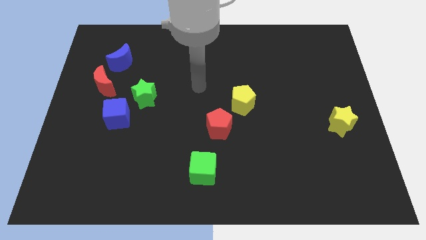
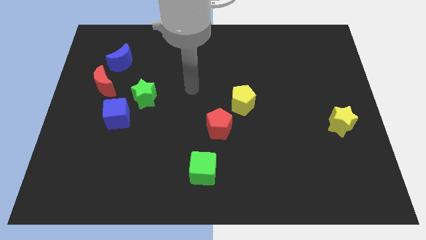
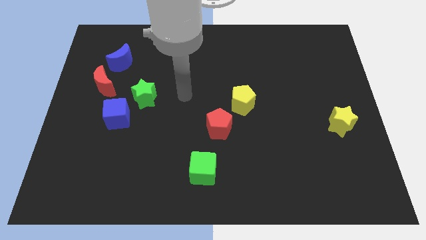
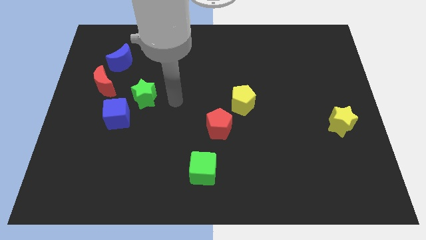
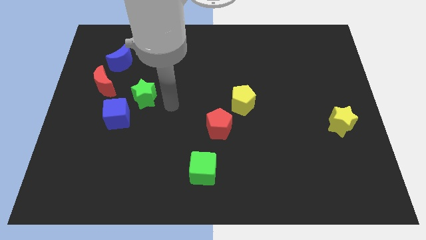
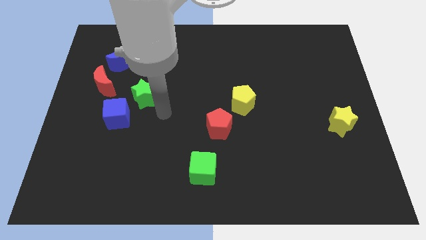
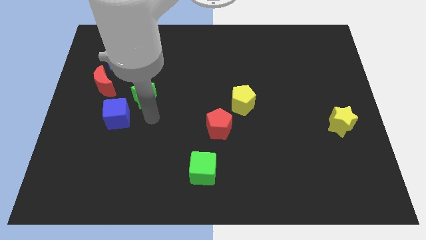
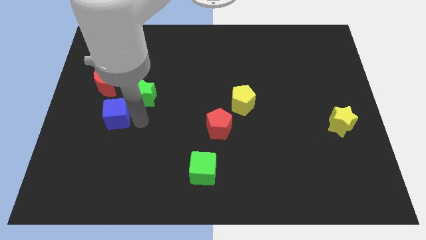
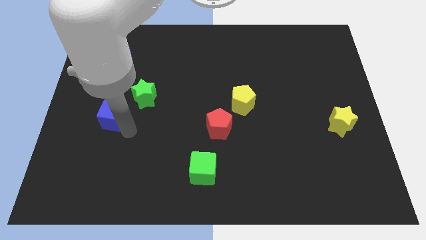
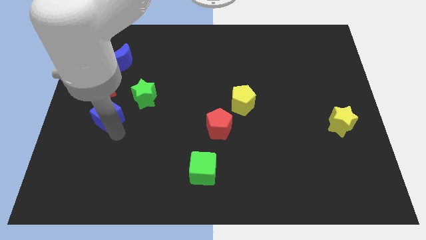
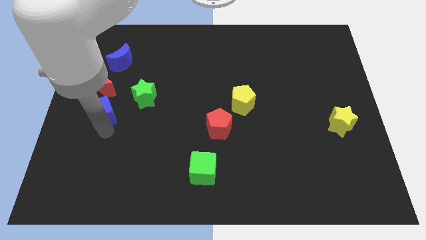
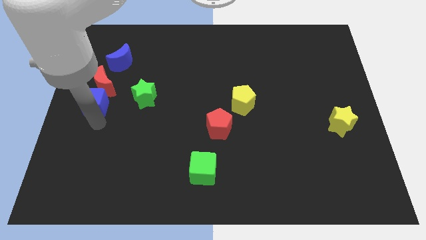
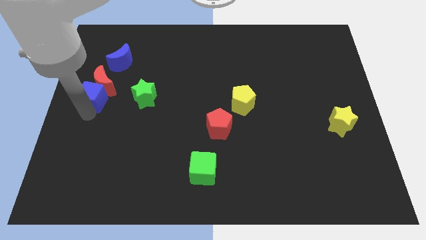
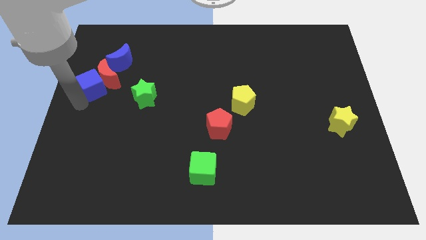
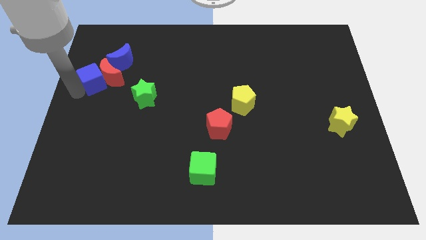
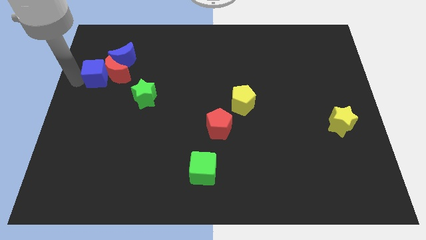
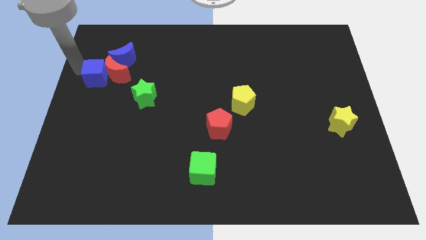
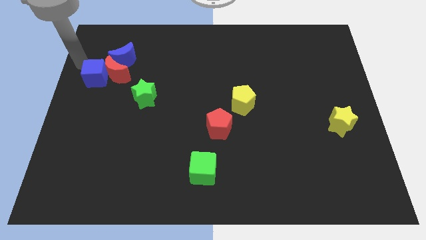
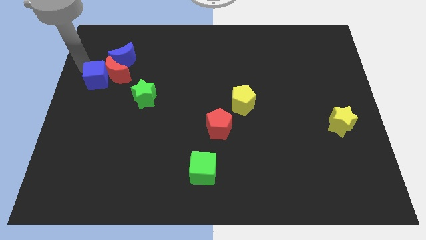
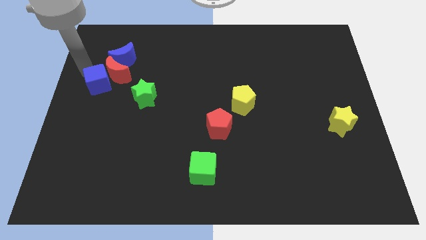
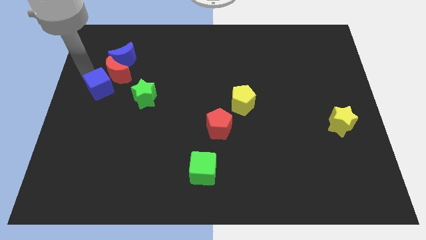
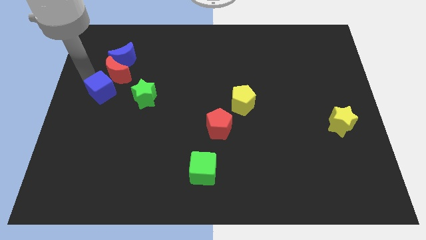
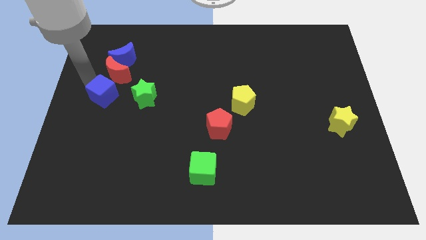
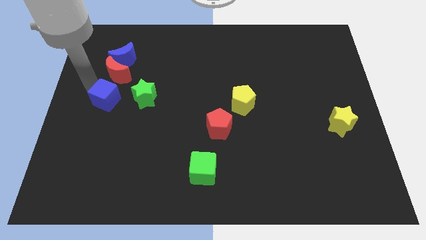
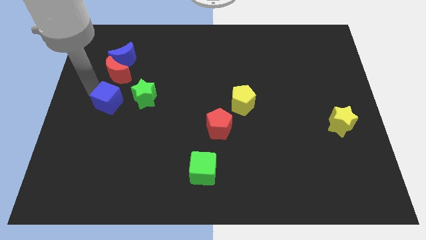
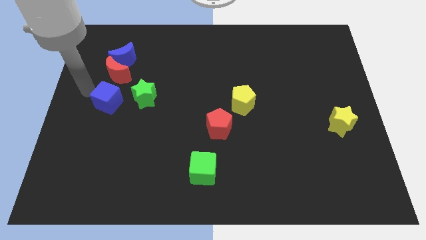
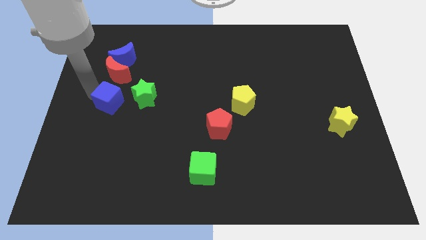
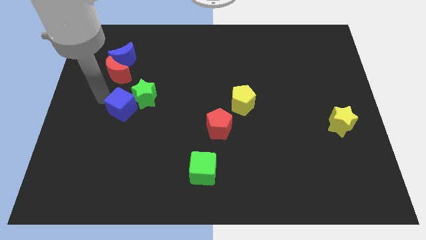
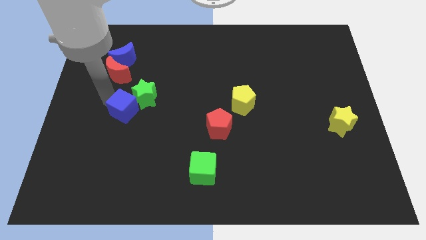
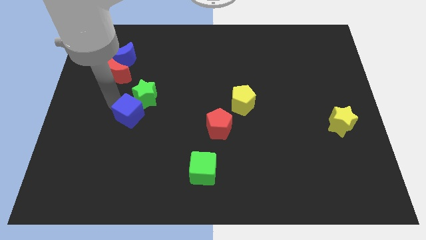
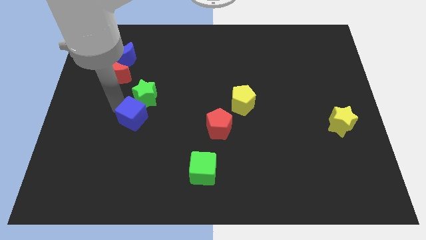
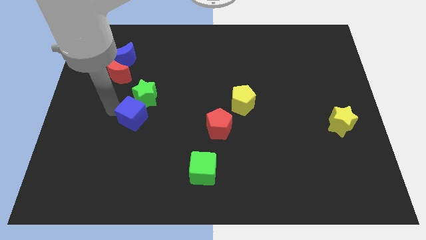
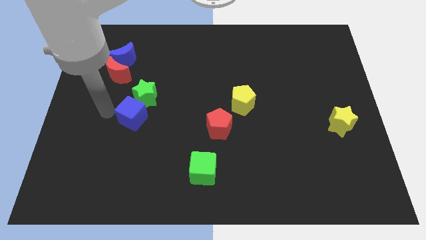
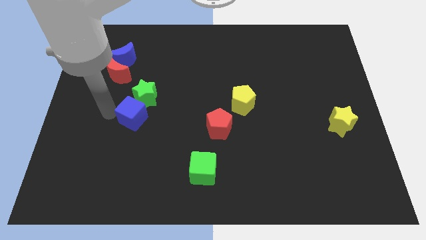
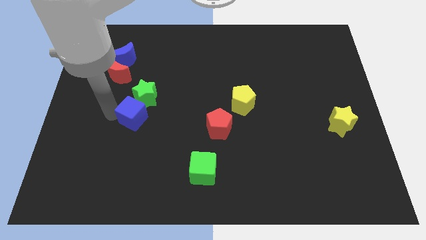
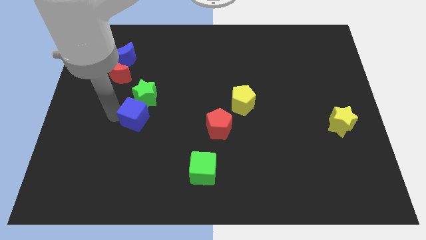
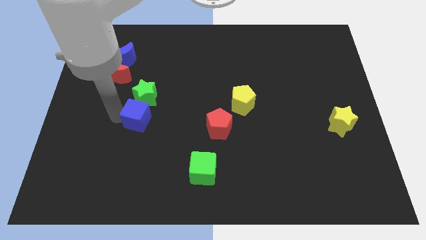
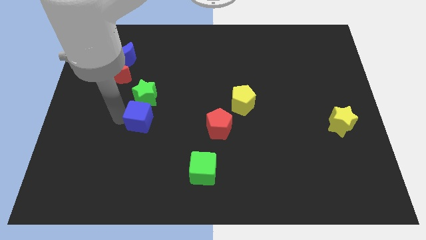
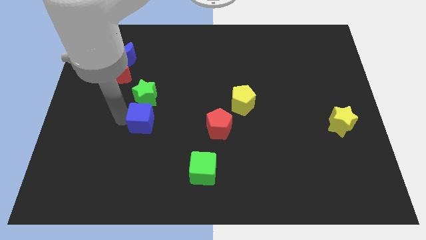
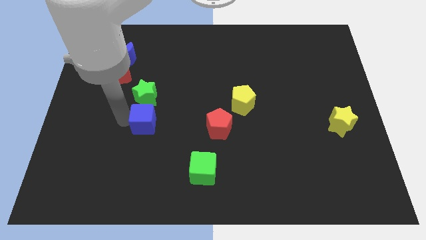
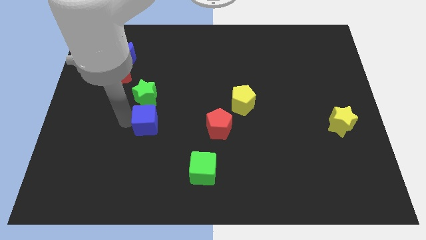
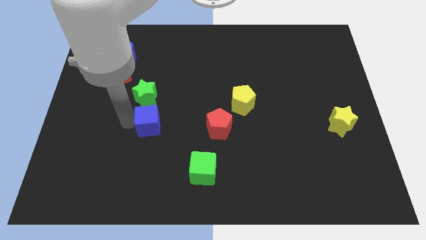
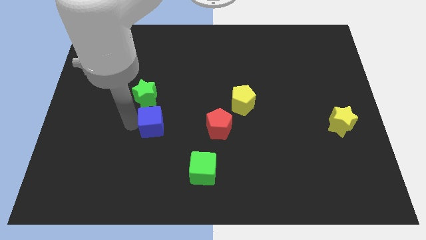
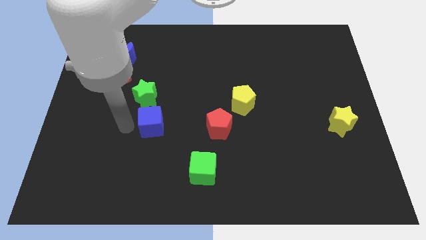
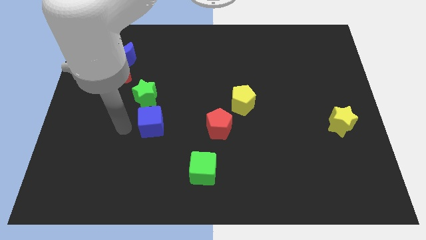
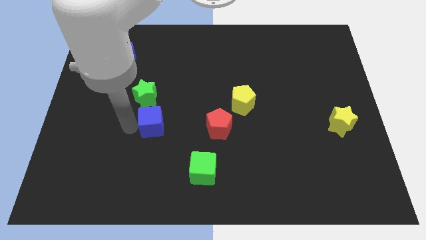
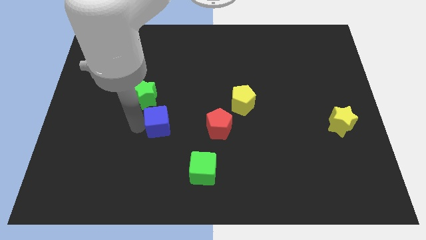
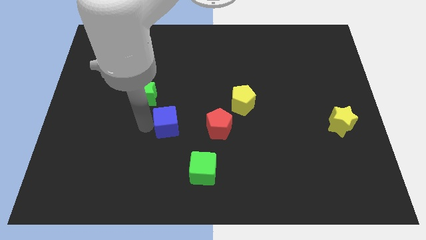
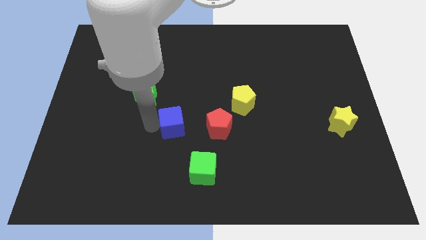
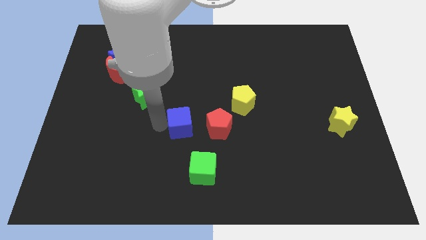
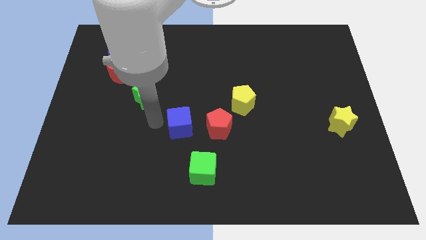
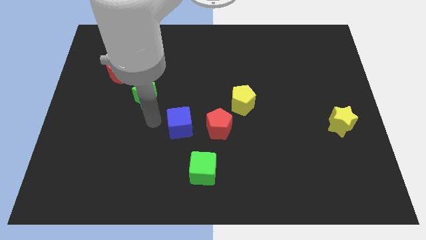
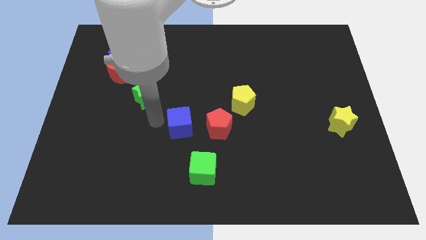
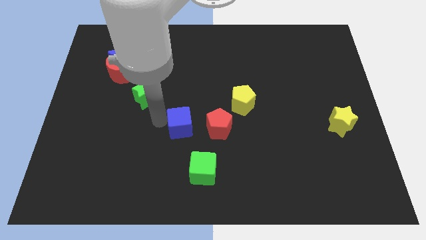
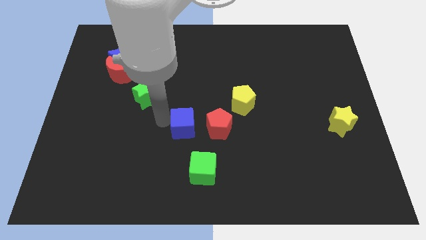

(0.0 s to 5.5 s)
push the blue cube above the green cube

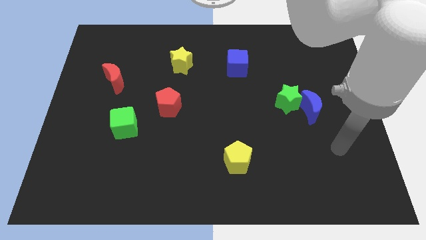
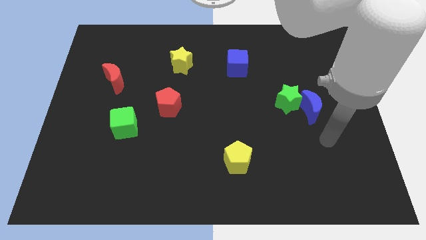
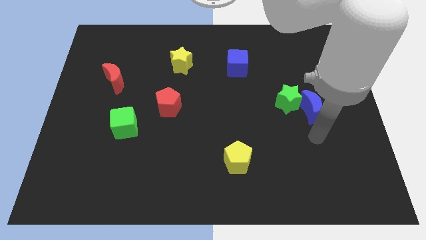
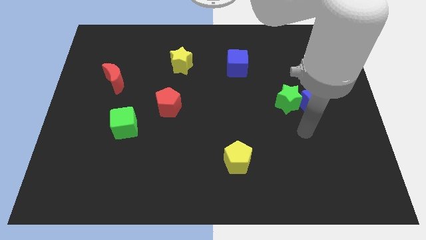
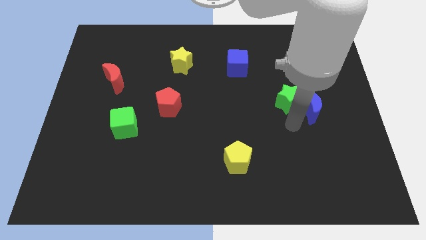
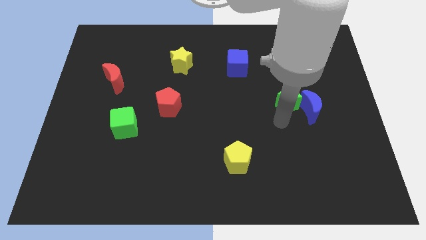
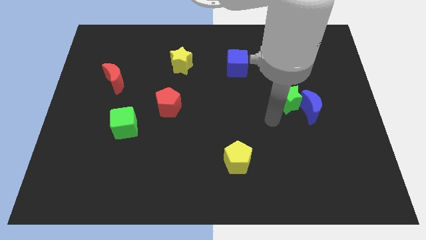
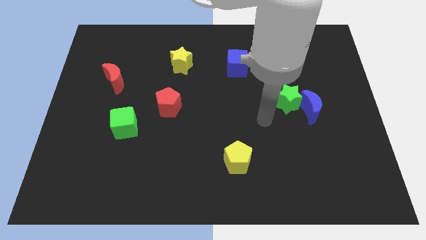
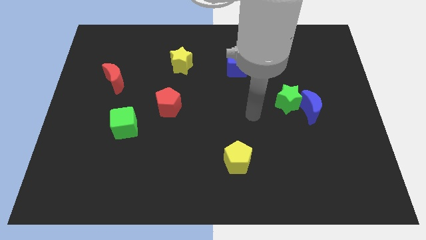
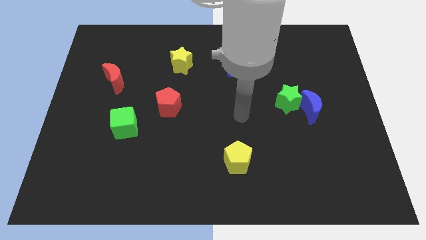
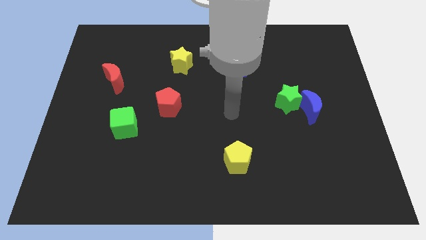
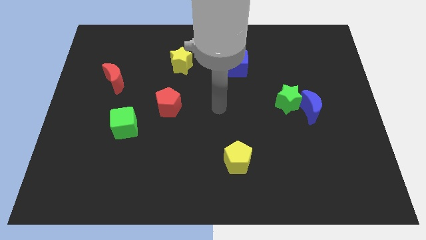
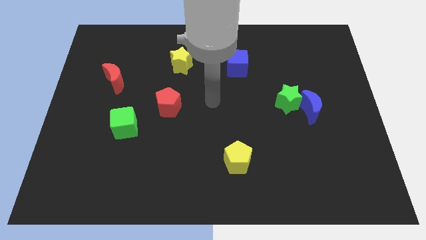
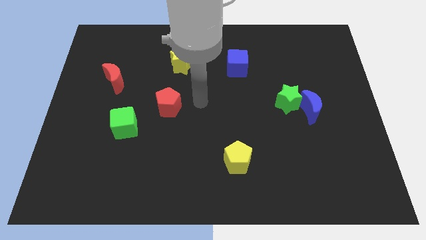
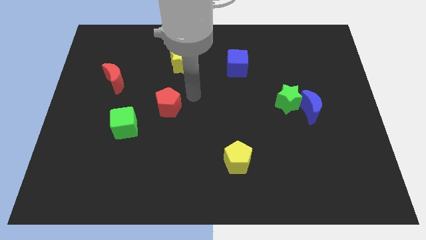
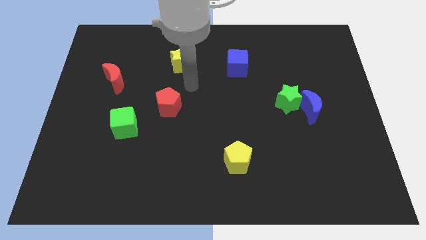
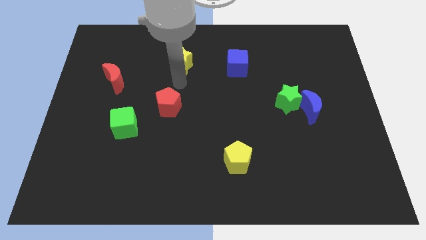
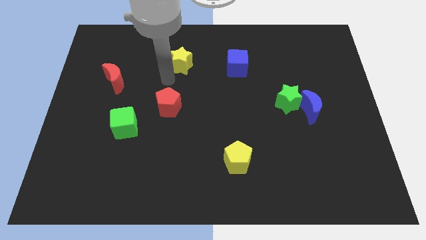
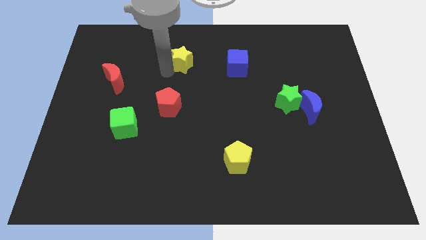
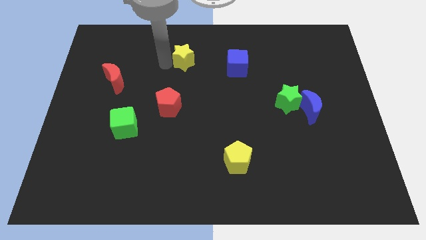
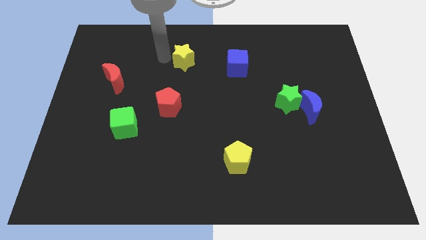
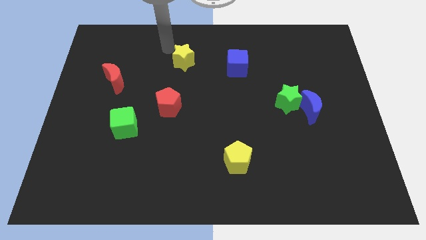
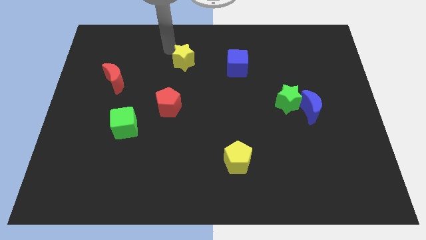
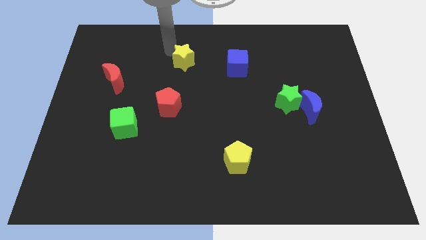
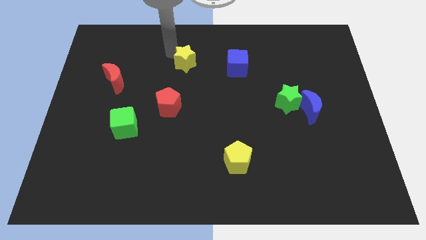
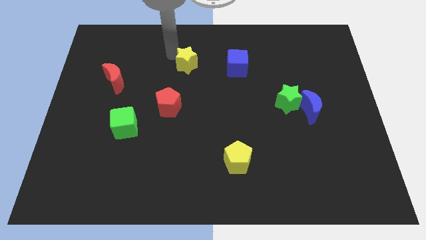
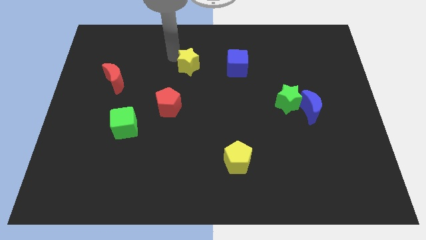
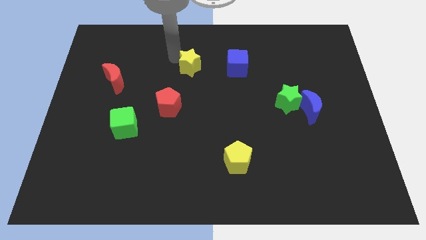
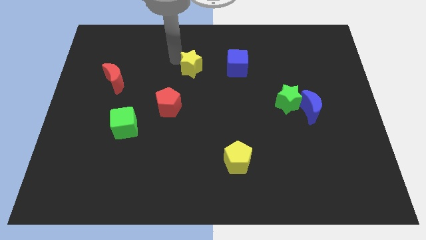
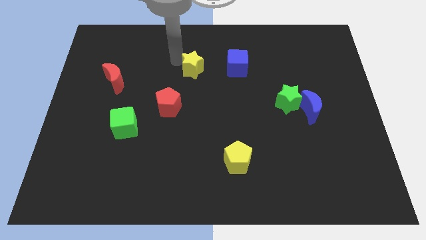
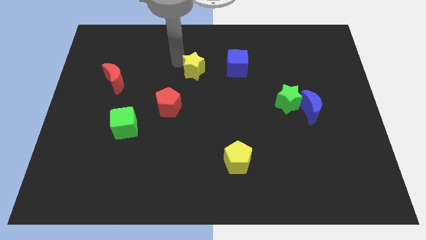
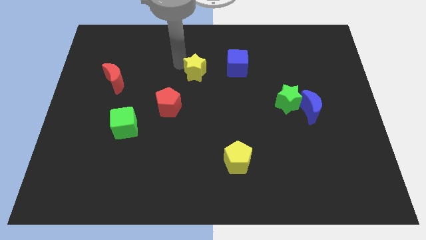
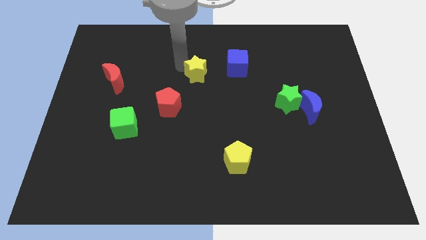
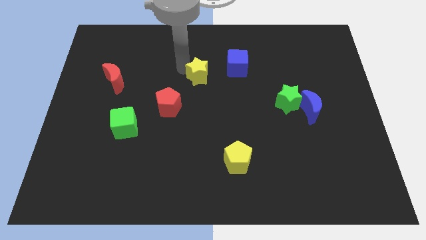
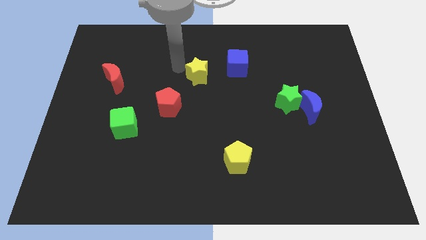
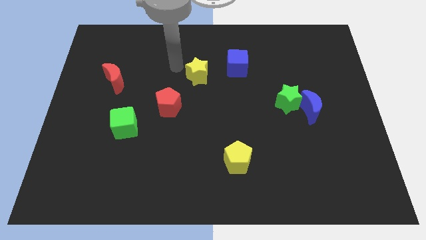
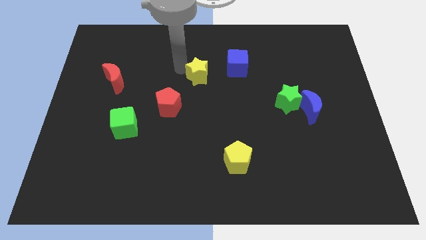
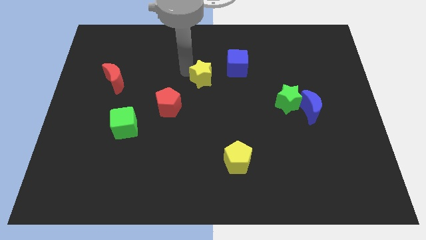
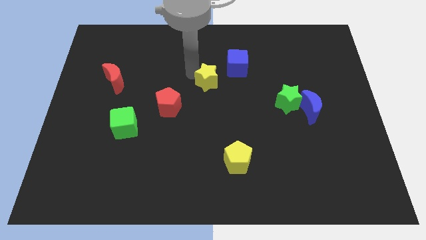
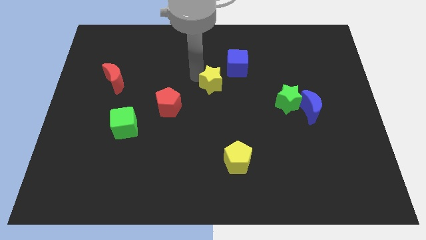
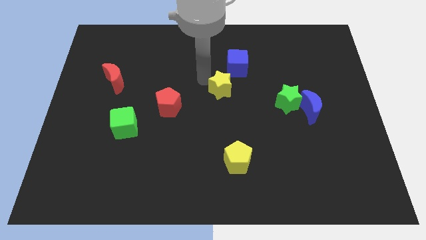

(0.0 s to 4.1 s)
slide the yellow star to the bottom of the blue cube
